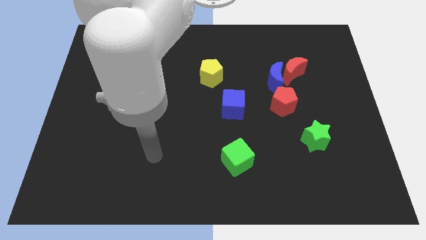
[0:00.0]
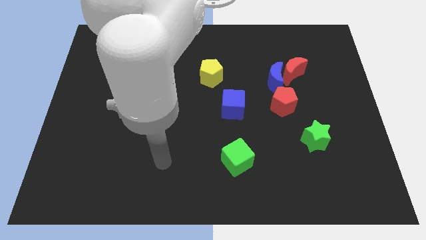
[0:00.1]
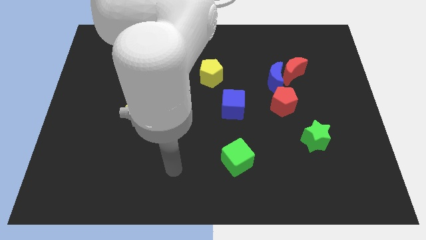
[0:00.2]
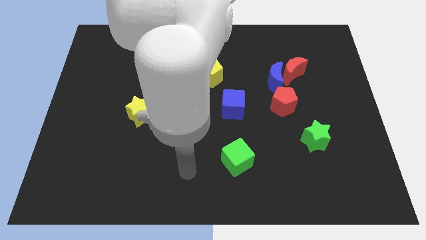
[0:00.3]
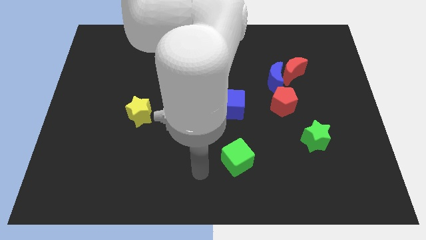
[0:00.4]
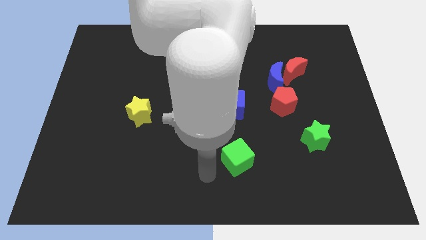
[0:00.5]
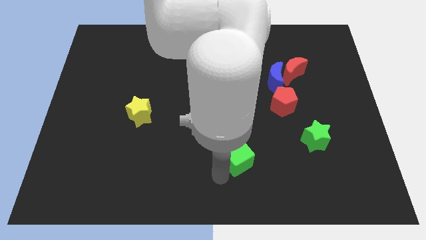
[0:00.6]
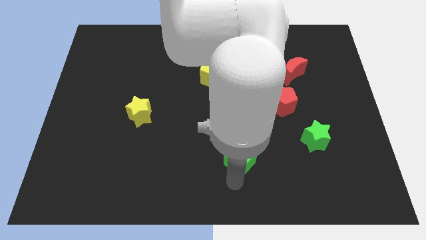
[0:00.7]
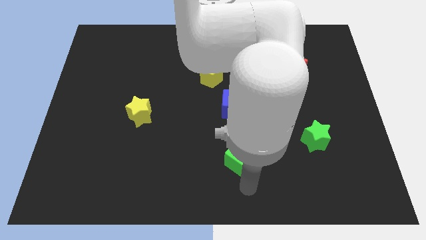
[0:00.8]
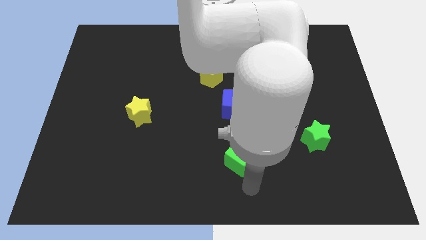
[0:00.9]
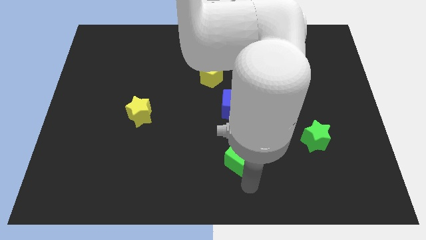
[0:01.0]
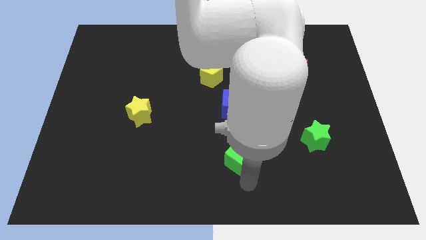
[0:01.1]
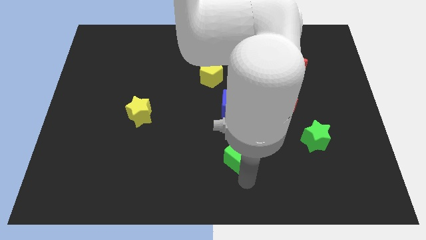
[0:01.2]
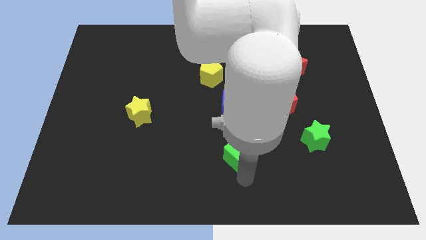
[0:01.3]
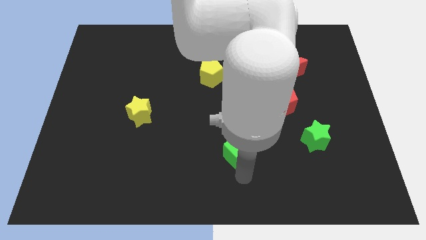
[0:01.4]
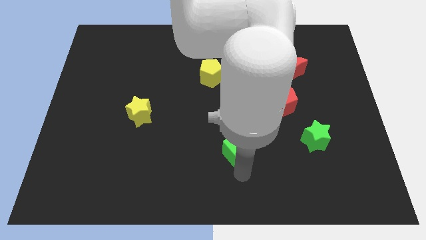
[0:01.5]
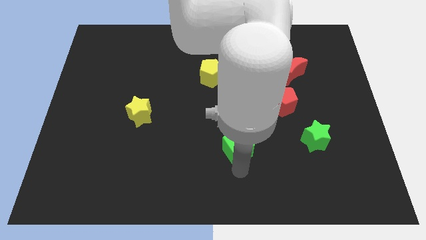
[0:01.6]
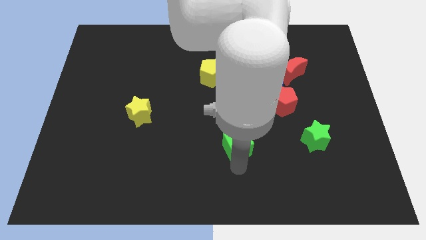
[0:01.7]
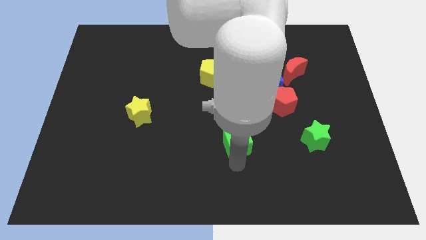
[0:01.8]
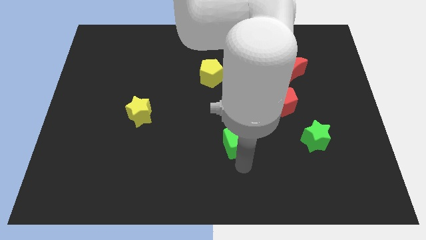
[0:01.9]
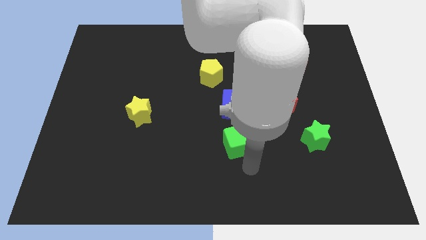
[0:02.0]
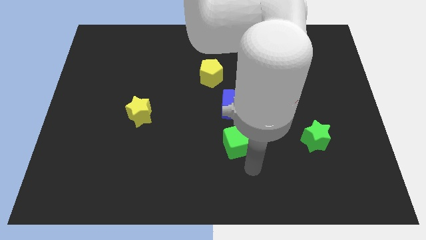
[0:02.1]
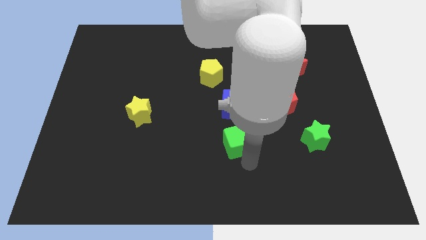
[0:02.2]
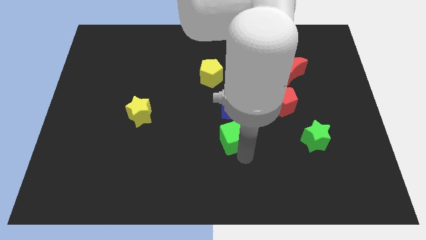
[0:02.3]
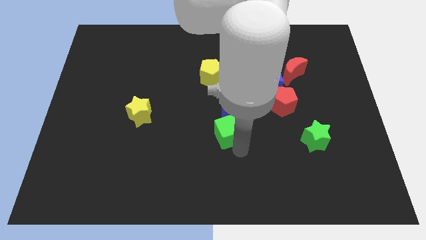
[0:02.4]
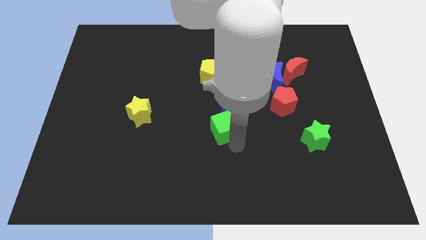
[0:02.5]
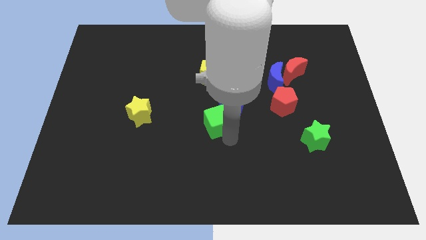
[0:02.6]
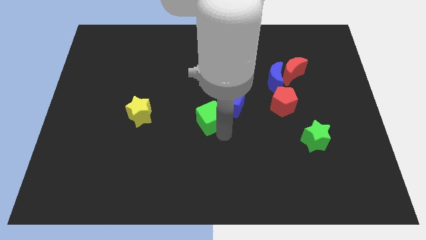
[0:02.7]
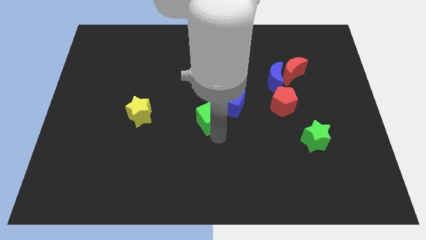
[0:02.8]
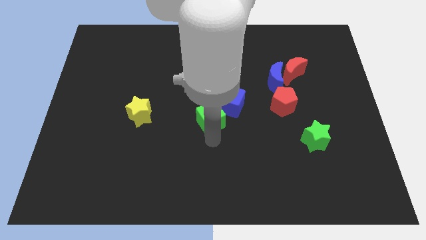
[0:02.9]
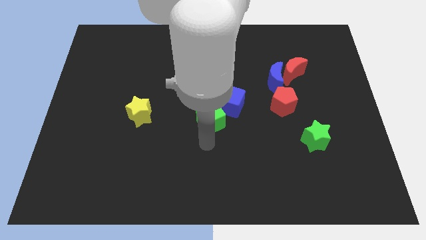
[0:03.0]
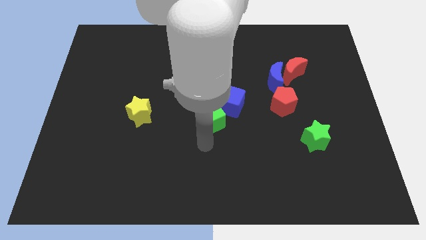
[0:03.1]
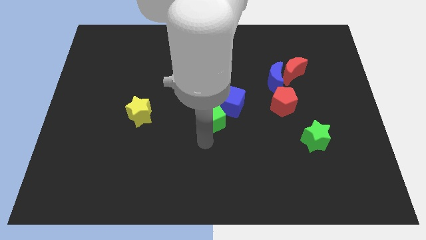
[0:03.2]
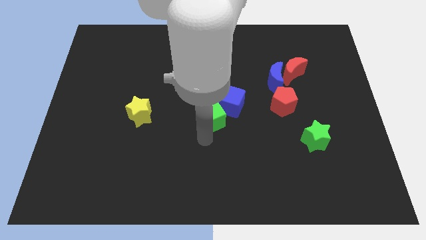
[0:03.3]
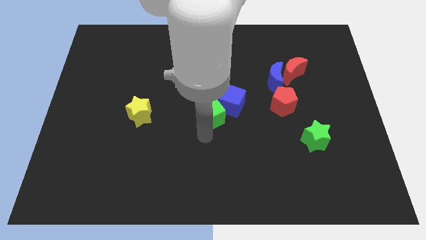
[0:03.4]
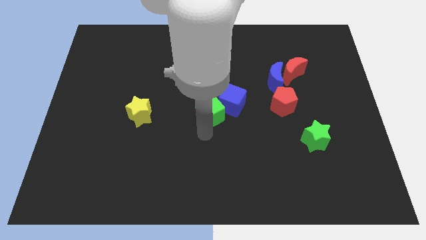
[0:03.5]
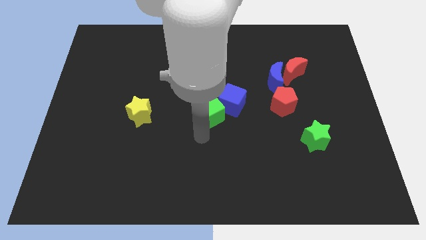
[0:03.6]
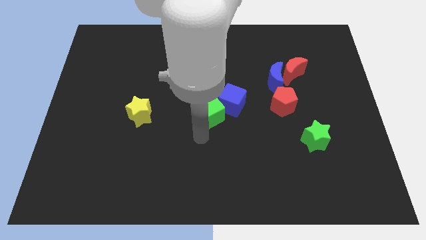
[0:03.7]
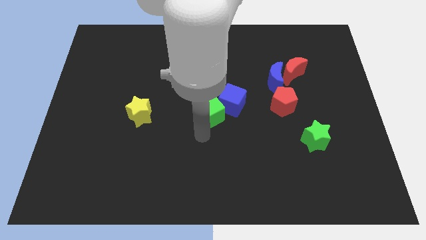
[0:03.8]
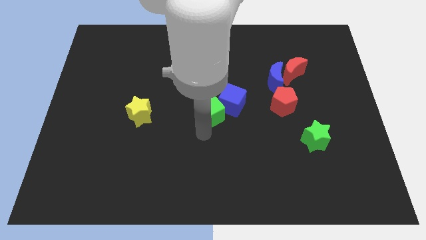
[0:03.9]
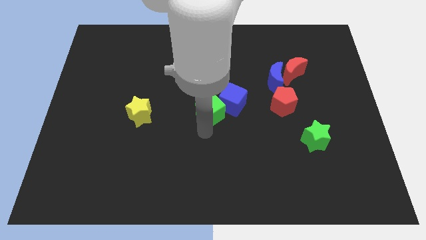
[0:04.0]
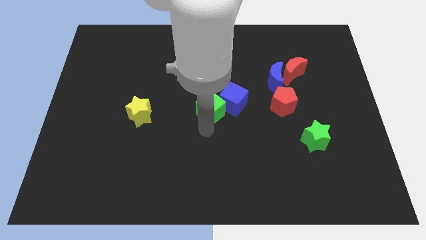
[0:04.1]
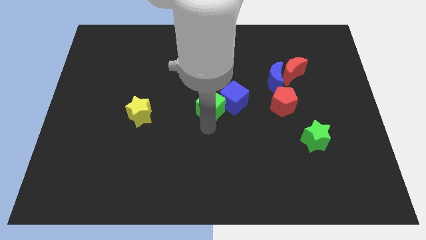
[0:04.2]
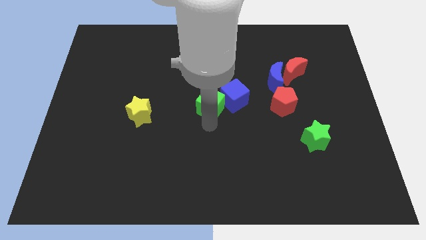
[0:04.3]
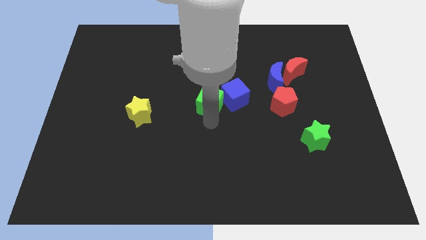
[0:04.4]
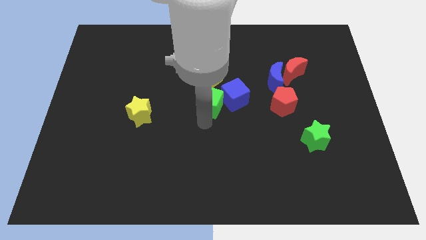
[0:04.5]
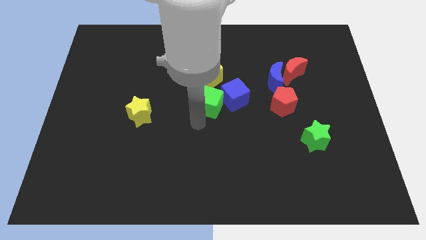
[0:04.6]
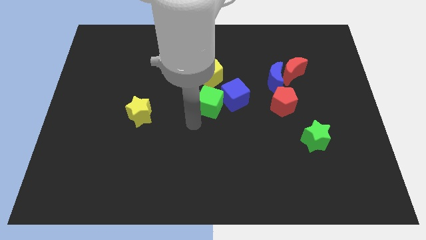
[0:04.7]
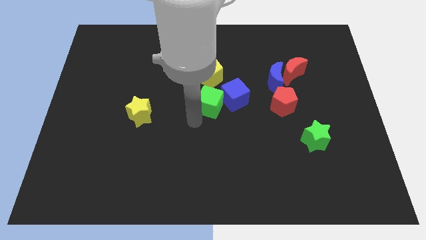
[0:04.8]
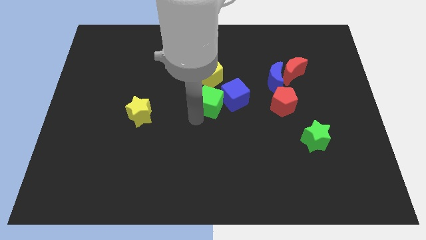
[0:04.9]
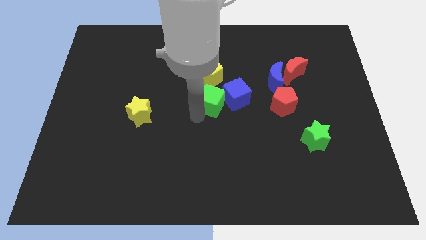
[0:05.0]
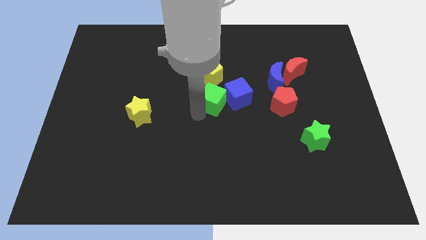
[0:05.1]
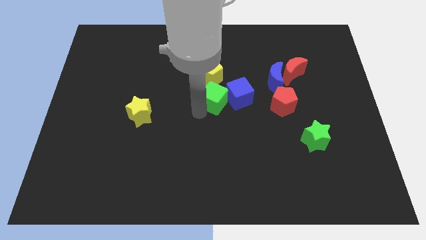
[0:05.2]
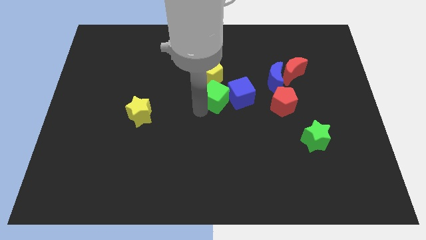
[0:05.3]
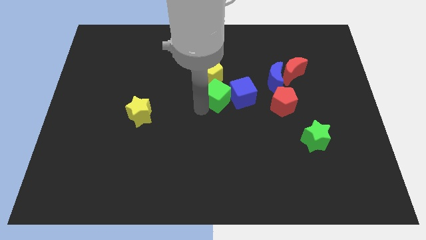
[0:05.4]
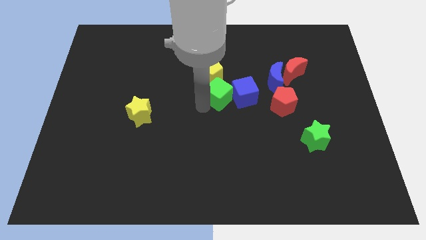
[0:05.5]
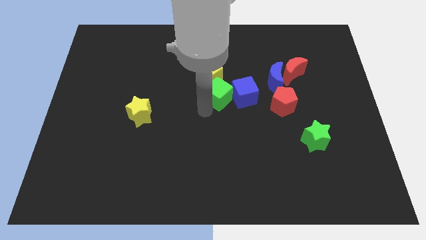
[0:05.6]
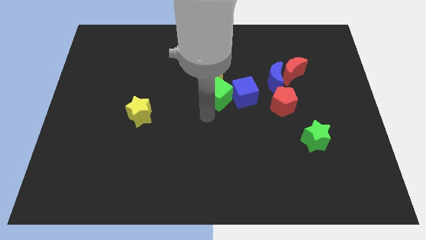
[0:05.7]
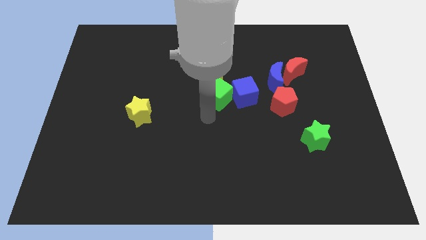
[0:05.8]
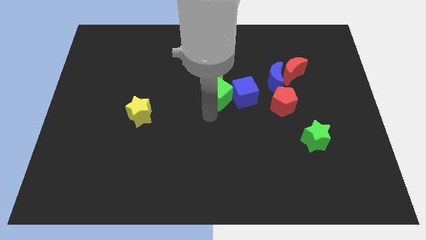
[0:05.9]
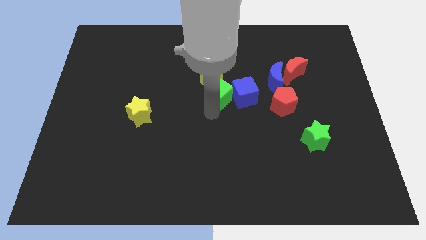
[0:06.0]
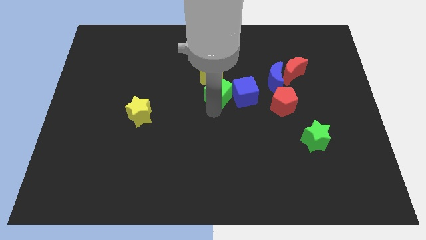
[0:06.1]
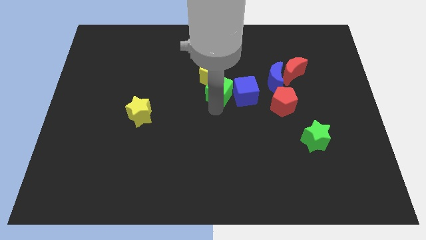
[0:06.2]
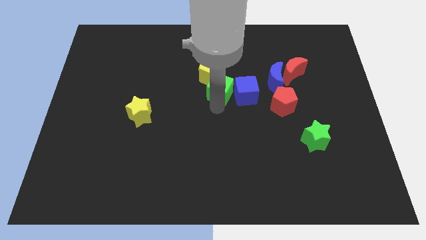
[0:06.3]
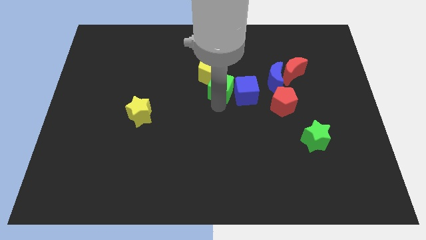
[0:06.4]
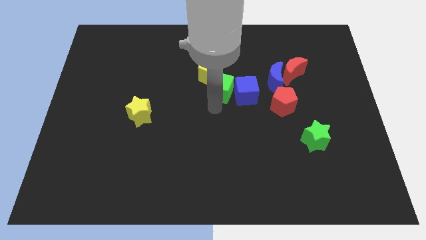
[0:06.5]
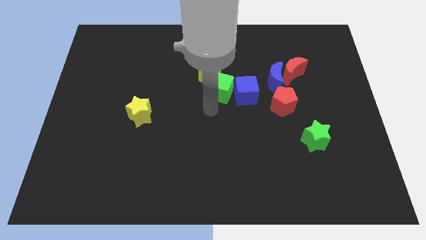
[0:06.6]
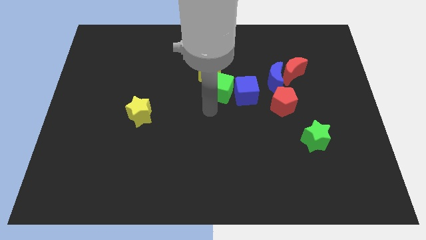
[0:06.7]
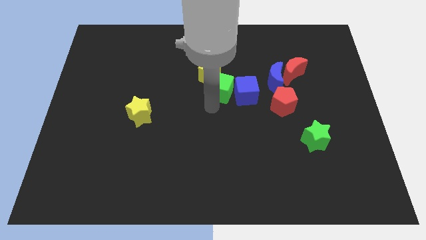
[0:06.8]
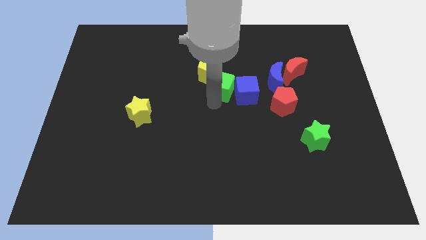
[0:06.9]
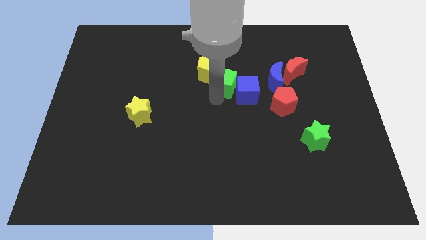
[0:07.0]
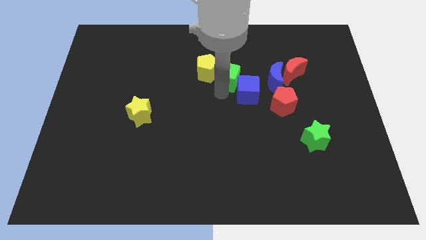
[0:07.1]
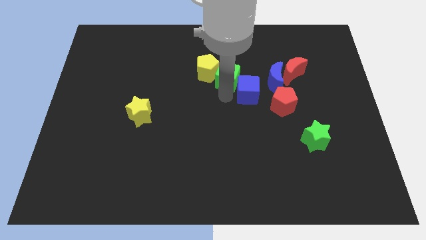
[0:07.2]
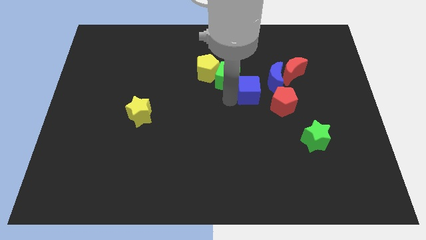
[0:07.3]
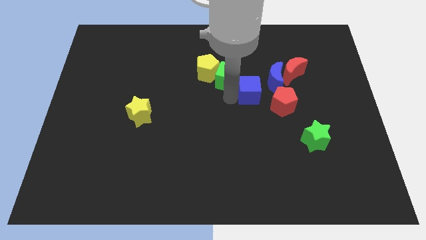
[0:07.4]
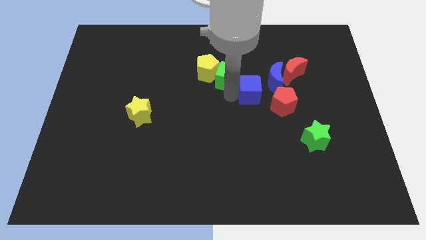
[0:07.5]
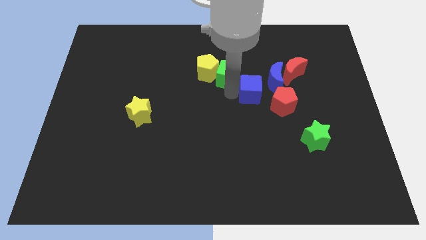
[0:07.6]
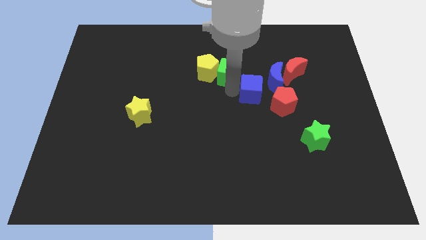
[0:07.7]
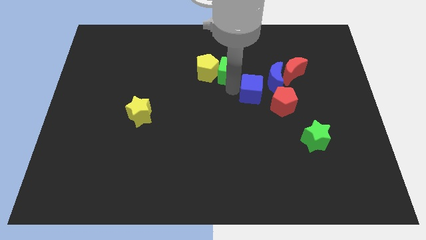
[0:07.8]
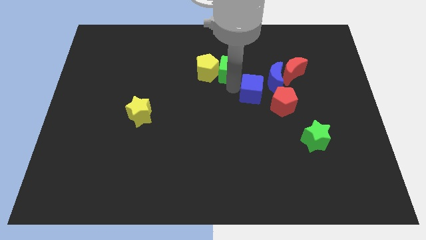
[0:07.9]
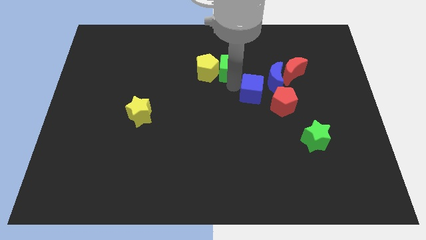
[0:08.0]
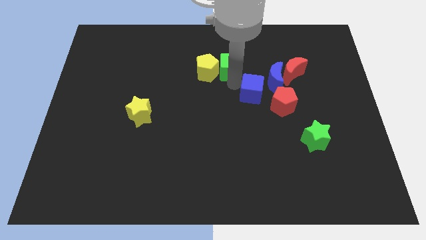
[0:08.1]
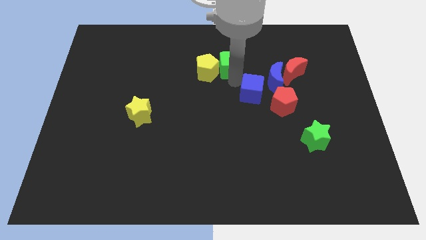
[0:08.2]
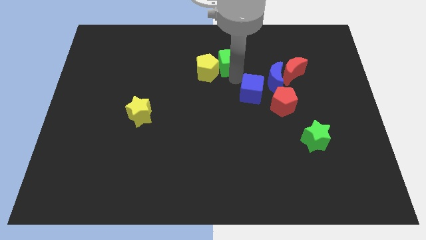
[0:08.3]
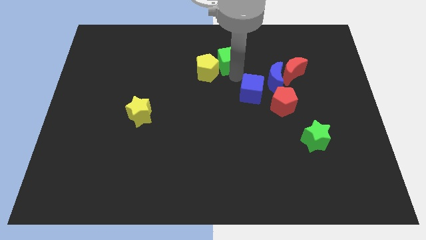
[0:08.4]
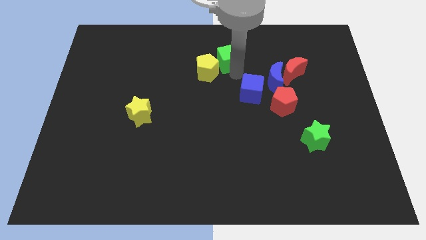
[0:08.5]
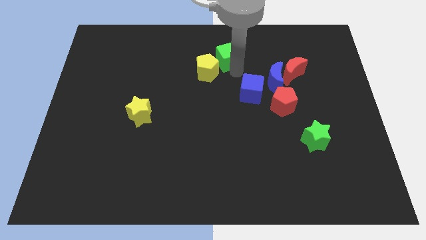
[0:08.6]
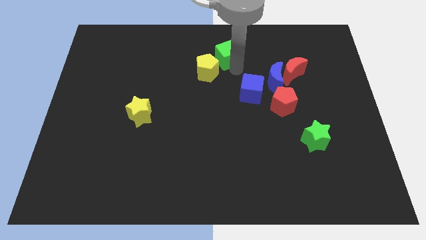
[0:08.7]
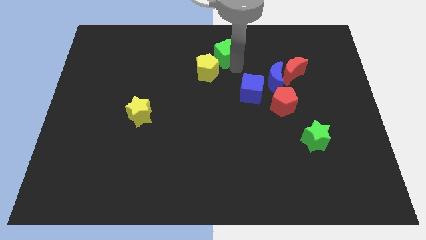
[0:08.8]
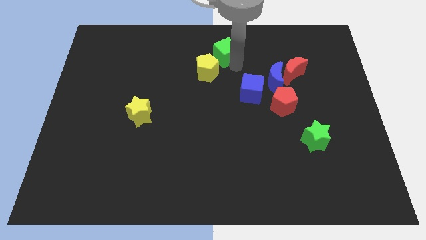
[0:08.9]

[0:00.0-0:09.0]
move the green cube to the top
